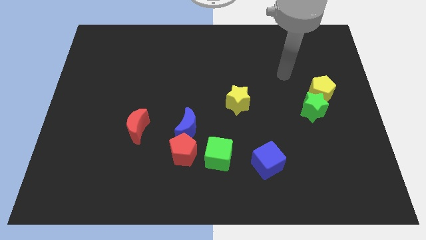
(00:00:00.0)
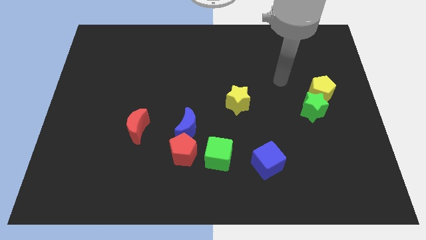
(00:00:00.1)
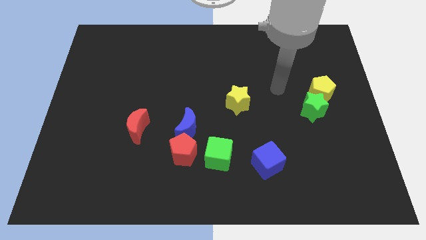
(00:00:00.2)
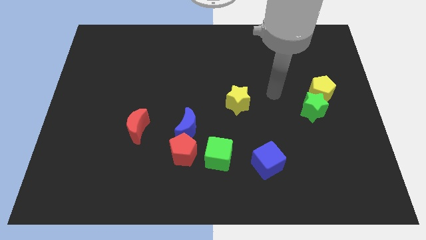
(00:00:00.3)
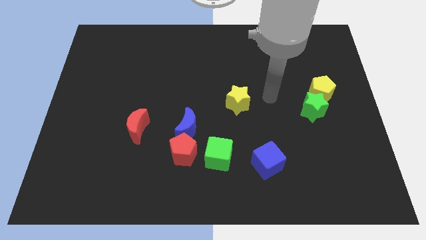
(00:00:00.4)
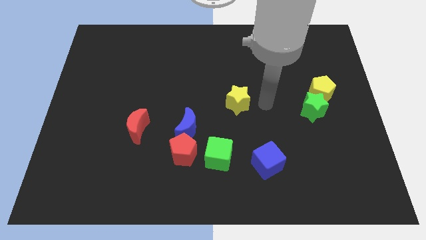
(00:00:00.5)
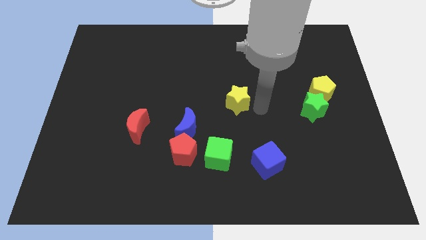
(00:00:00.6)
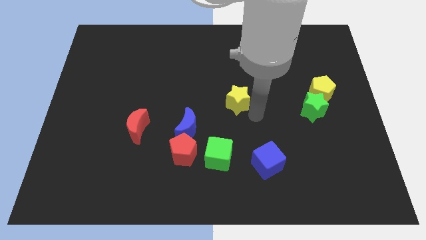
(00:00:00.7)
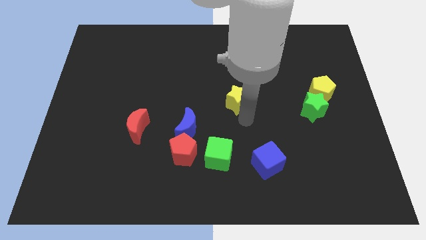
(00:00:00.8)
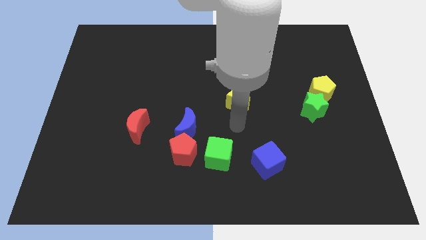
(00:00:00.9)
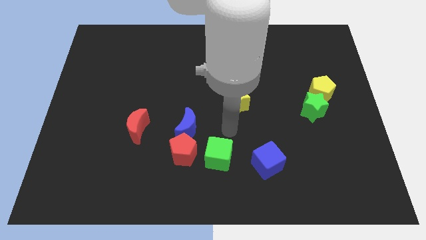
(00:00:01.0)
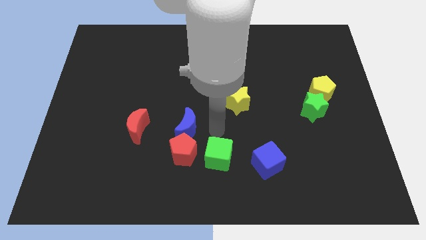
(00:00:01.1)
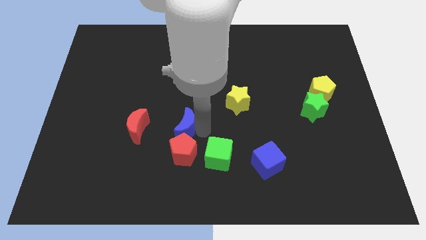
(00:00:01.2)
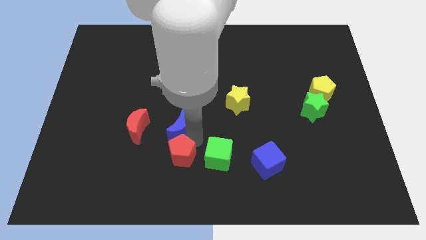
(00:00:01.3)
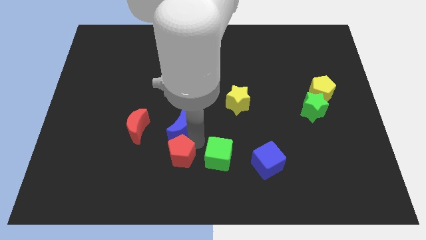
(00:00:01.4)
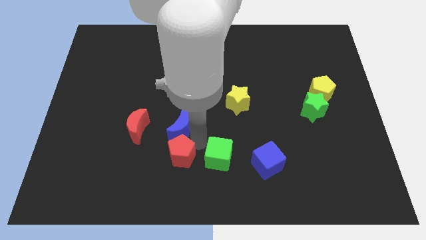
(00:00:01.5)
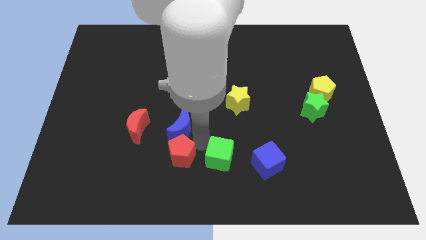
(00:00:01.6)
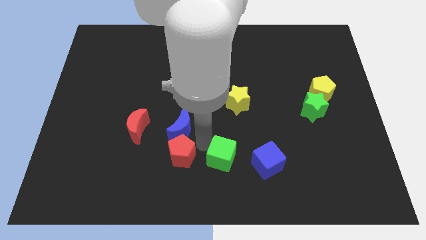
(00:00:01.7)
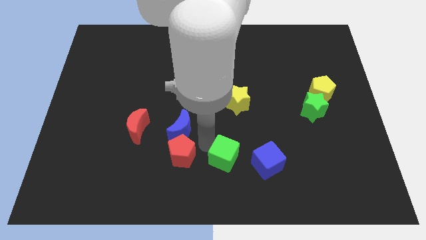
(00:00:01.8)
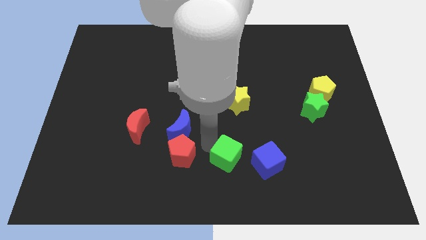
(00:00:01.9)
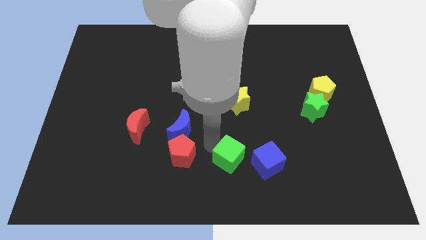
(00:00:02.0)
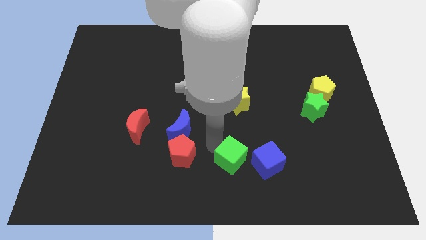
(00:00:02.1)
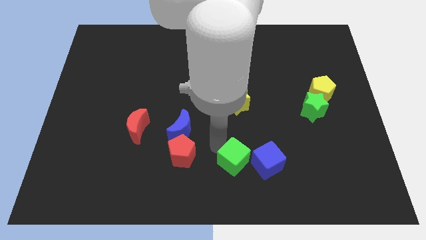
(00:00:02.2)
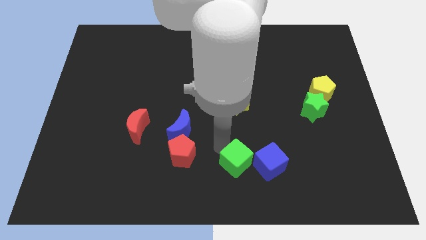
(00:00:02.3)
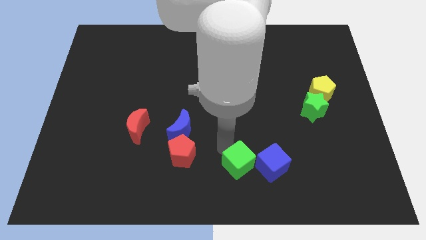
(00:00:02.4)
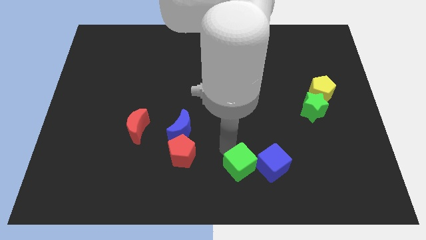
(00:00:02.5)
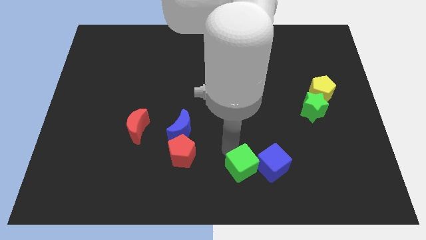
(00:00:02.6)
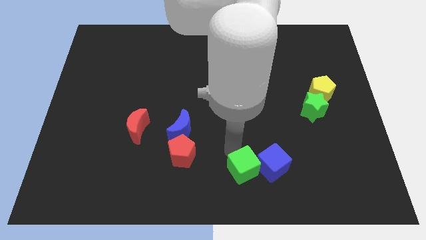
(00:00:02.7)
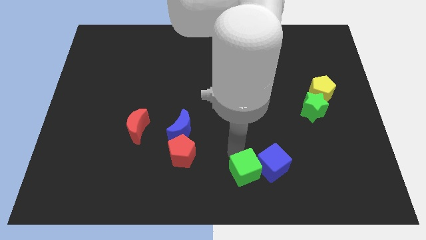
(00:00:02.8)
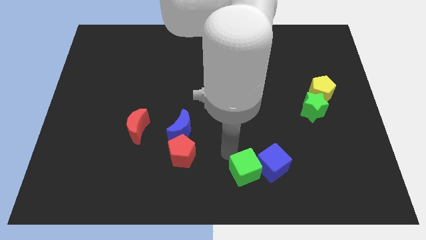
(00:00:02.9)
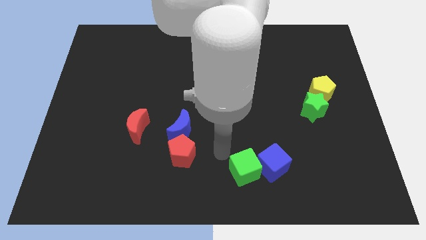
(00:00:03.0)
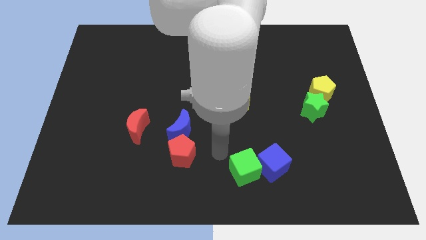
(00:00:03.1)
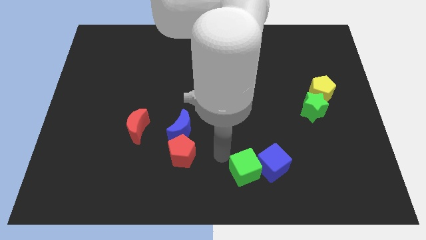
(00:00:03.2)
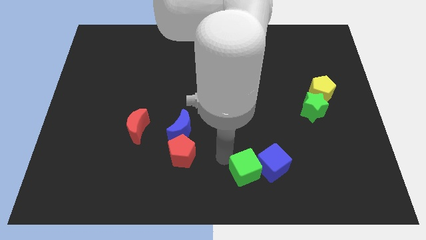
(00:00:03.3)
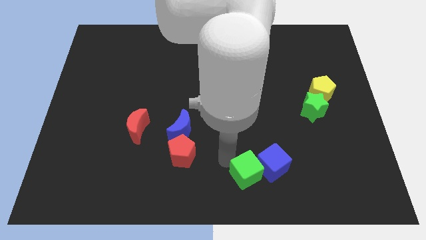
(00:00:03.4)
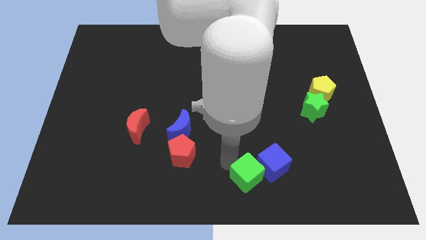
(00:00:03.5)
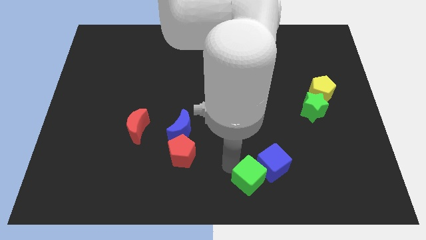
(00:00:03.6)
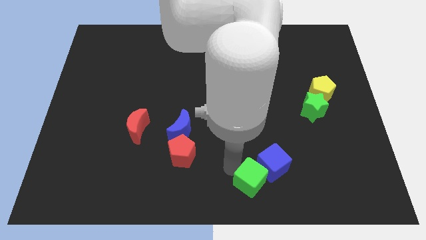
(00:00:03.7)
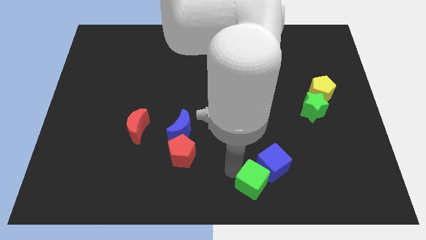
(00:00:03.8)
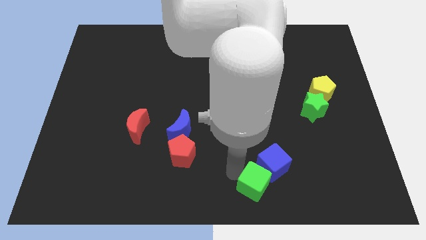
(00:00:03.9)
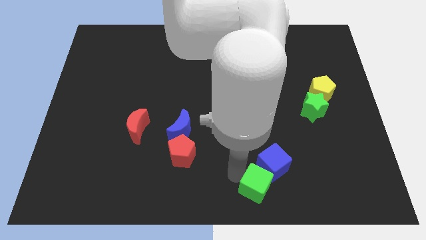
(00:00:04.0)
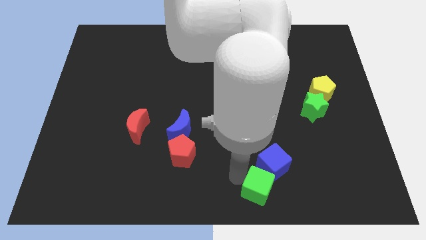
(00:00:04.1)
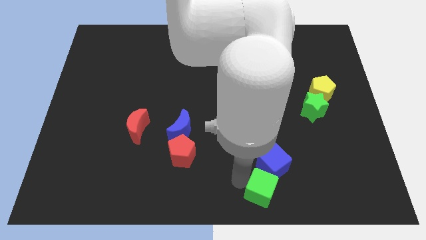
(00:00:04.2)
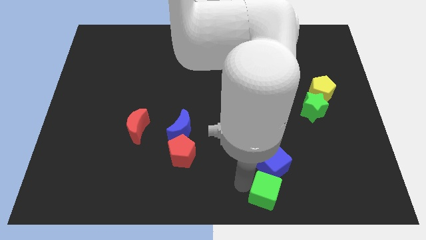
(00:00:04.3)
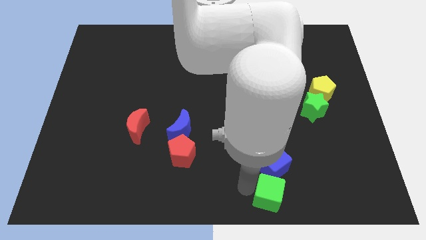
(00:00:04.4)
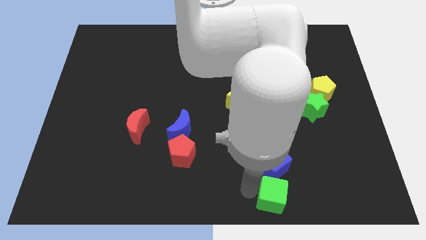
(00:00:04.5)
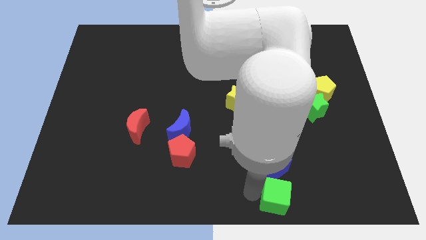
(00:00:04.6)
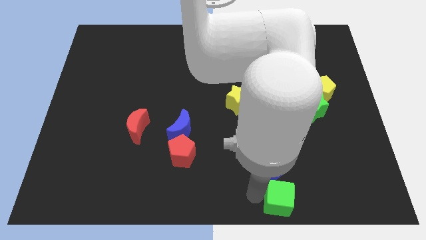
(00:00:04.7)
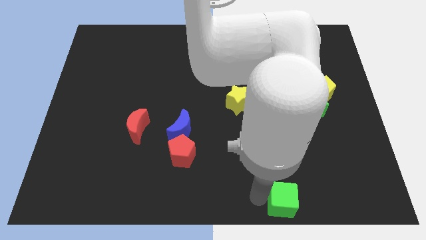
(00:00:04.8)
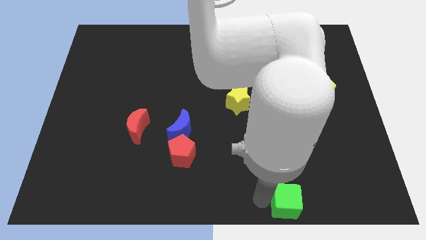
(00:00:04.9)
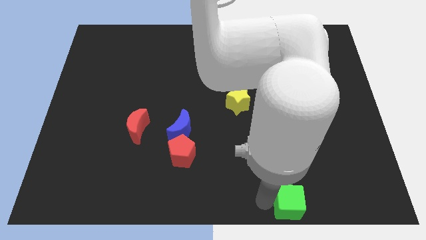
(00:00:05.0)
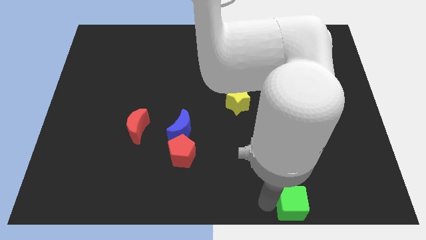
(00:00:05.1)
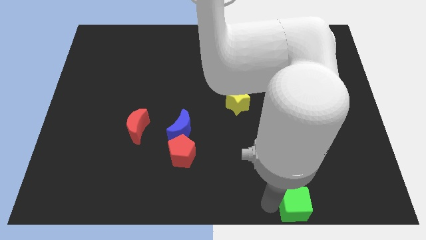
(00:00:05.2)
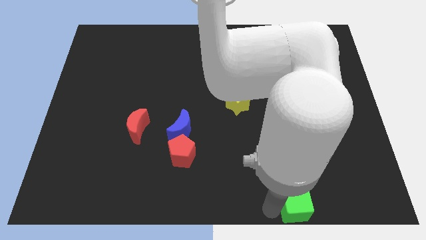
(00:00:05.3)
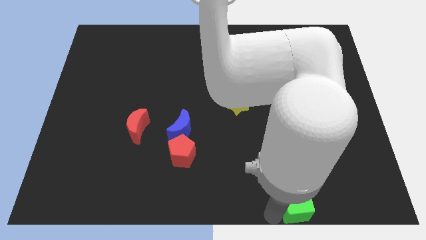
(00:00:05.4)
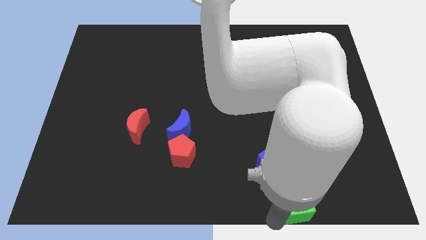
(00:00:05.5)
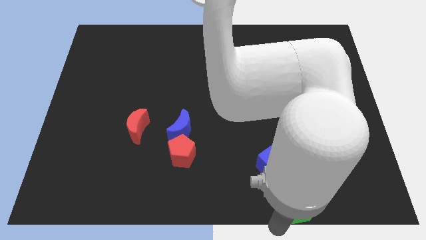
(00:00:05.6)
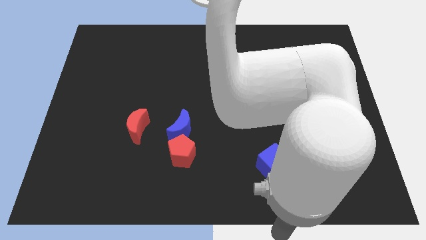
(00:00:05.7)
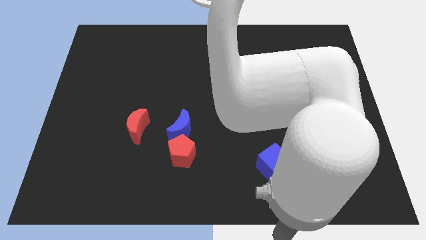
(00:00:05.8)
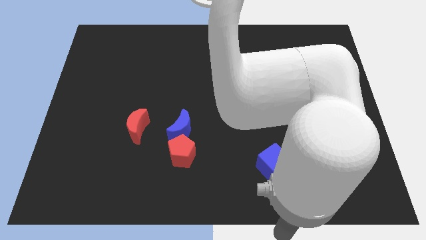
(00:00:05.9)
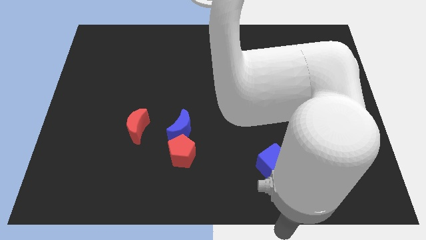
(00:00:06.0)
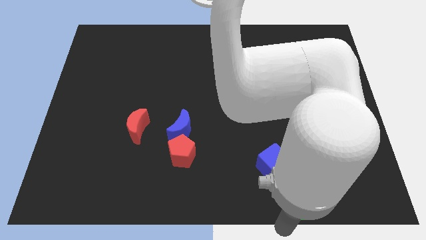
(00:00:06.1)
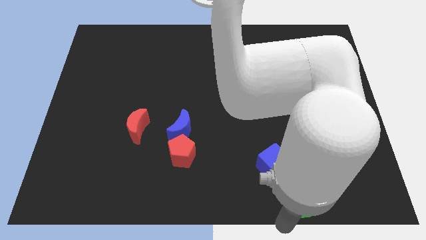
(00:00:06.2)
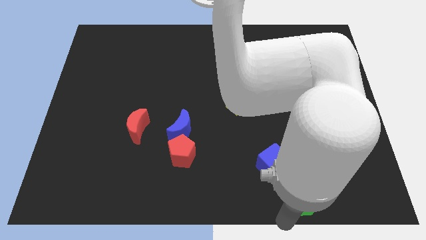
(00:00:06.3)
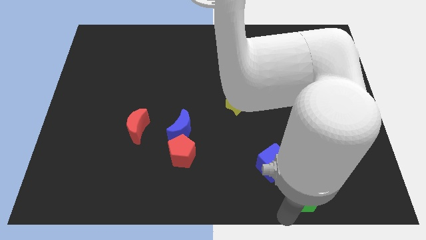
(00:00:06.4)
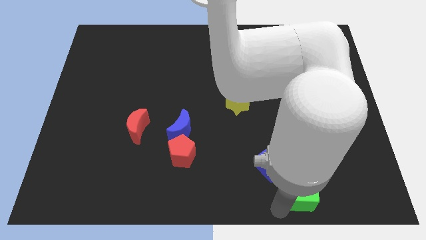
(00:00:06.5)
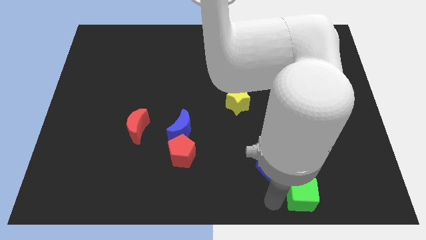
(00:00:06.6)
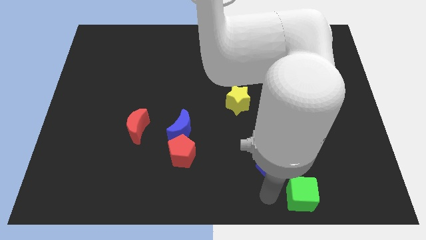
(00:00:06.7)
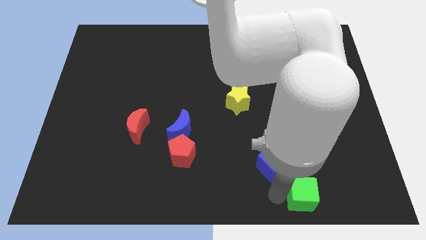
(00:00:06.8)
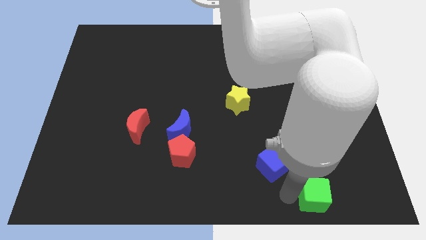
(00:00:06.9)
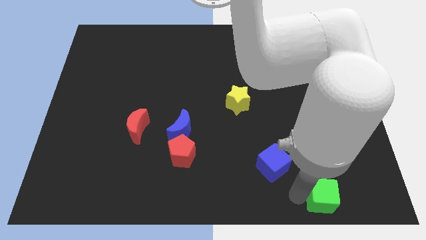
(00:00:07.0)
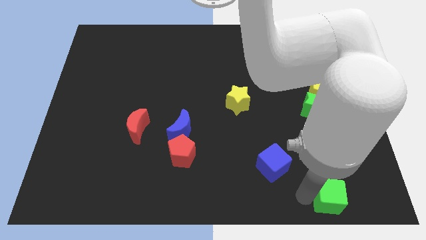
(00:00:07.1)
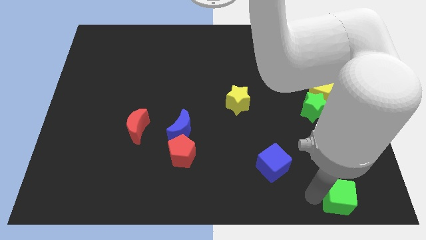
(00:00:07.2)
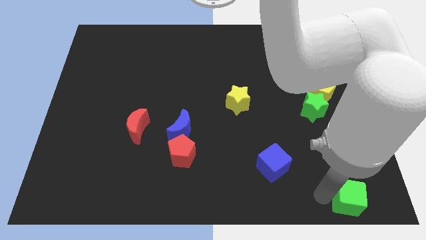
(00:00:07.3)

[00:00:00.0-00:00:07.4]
slide the green cube to the bottom right corner
